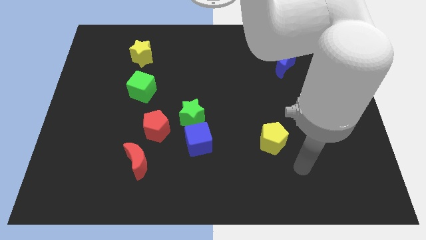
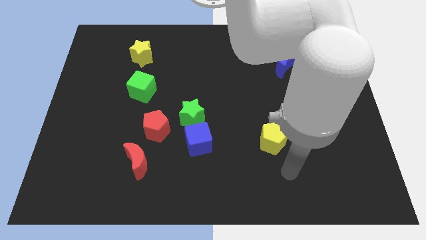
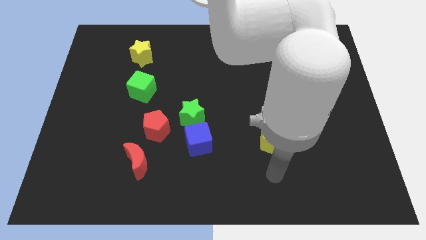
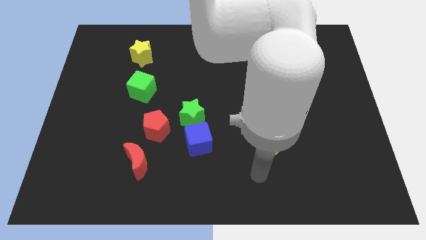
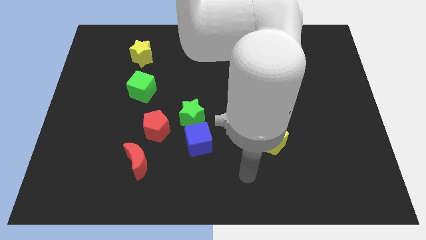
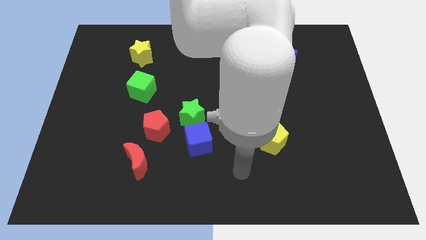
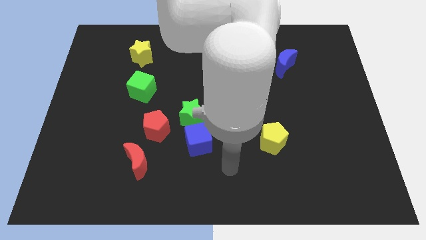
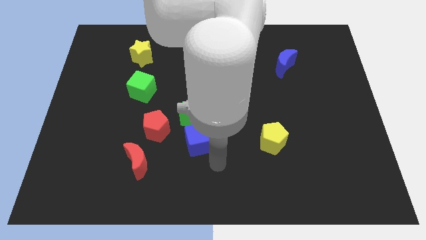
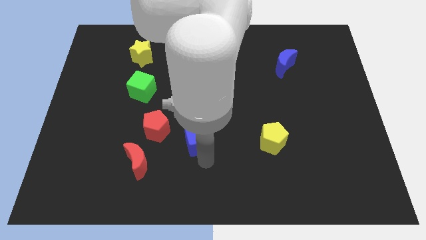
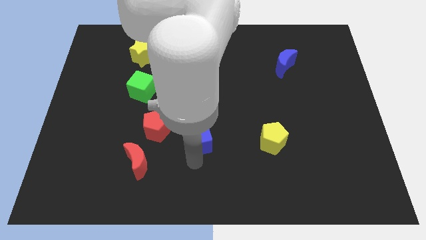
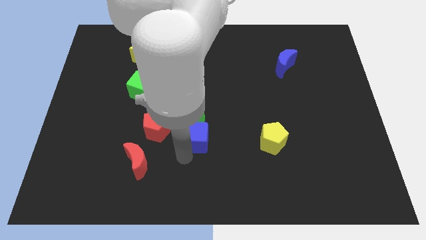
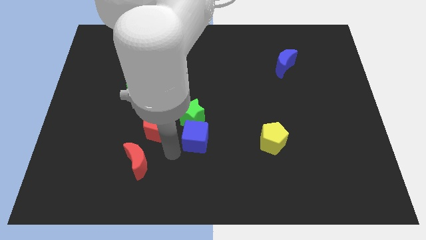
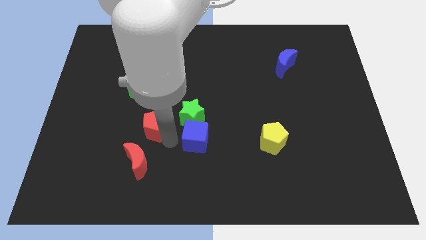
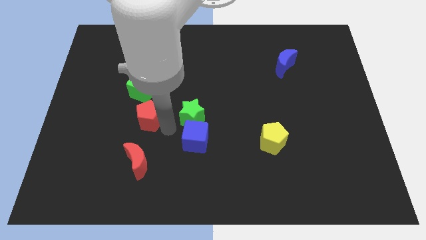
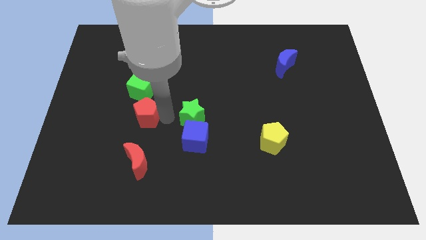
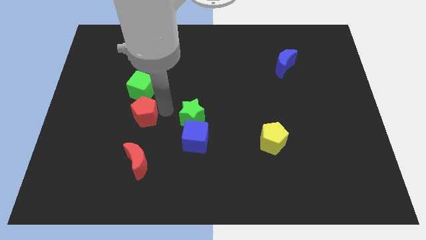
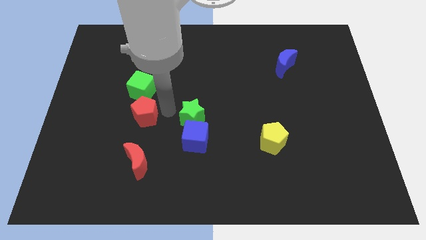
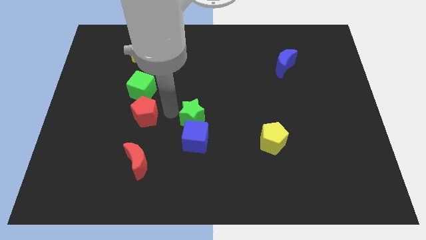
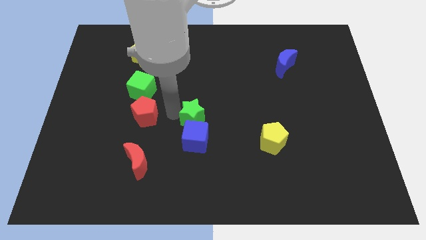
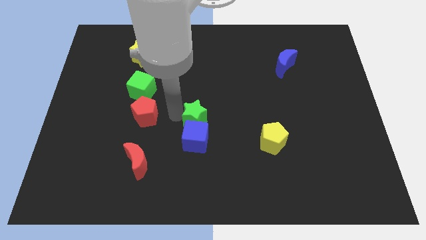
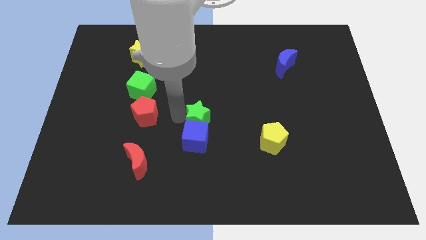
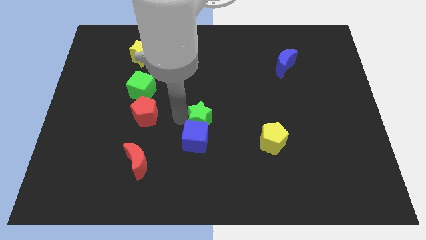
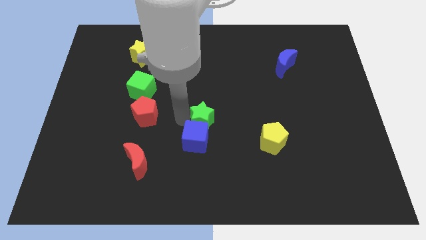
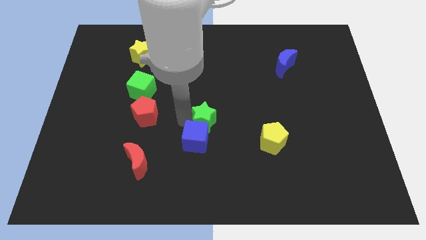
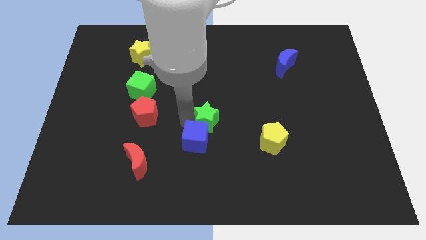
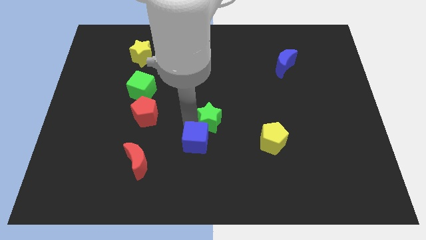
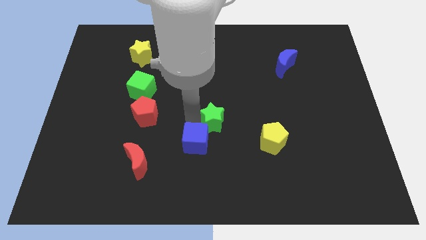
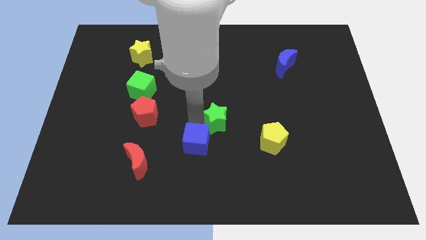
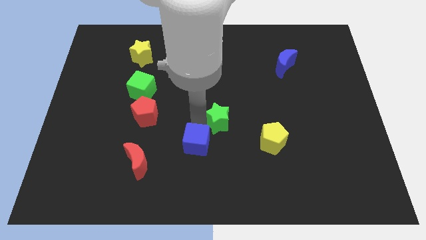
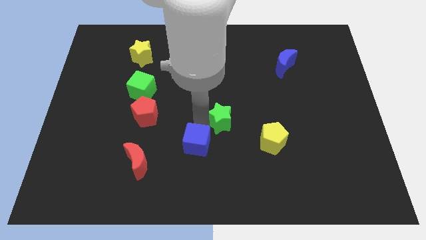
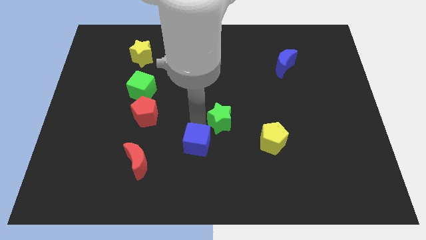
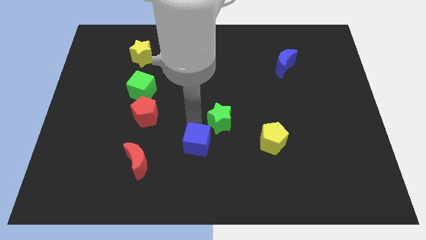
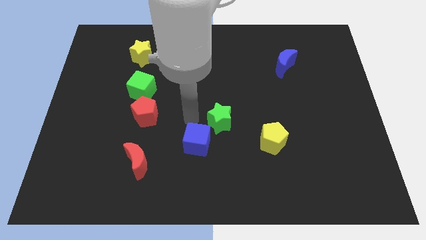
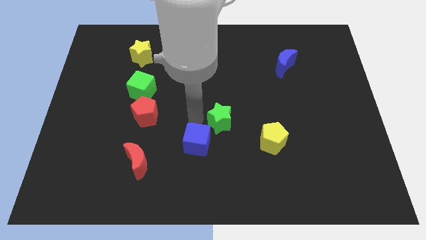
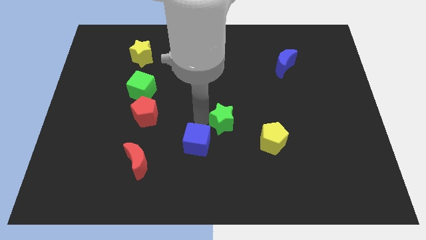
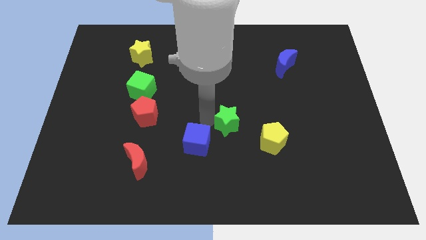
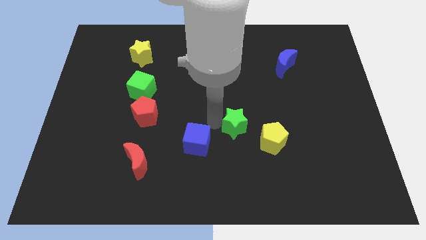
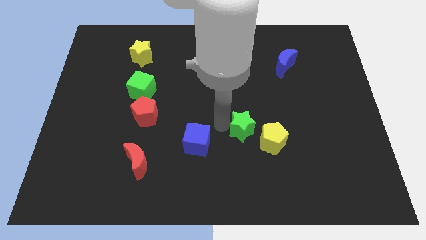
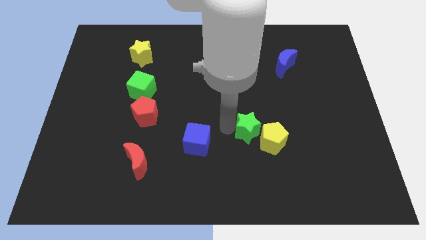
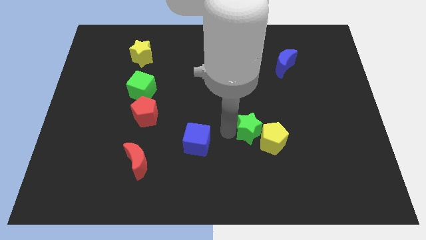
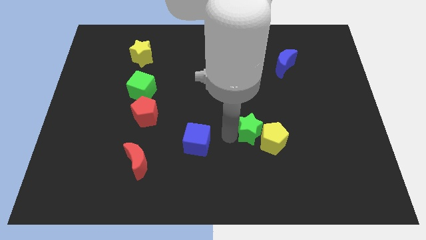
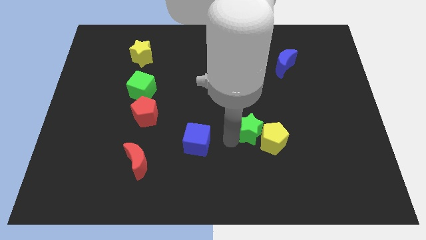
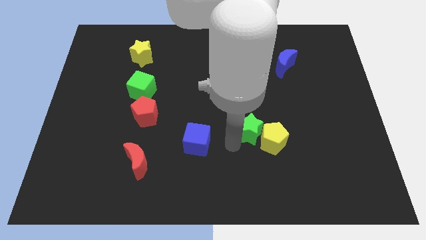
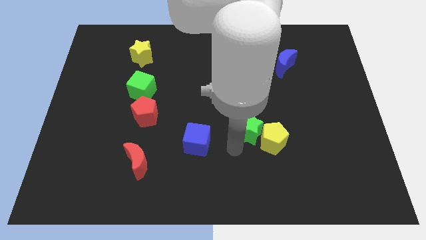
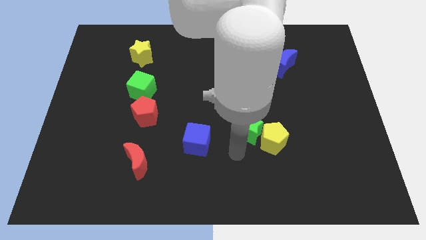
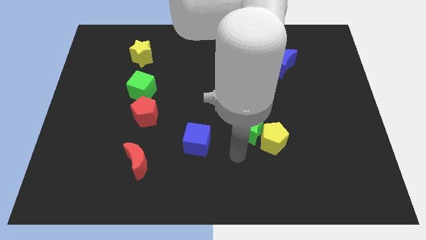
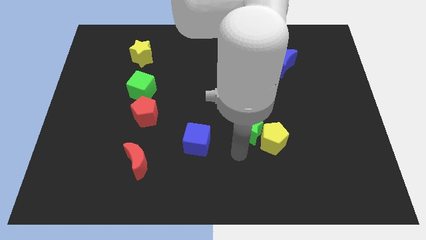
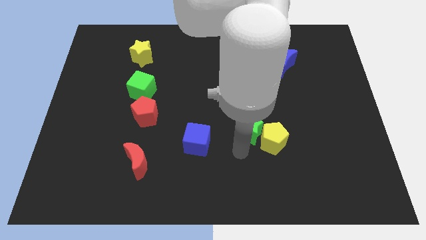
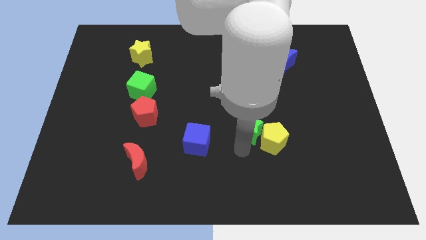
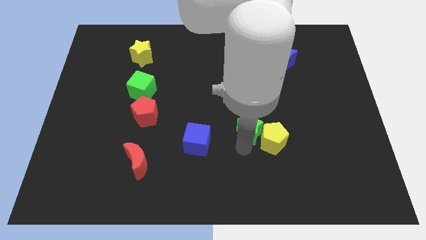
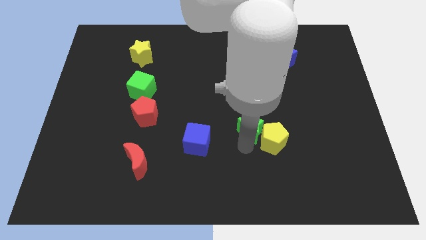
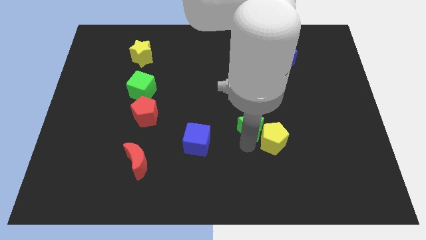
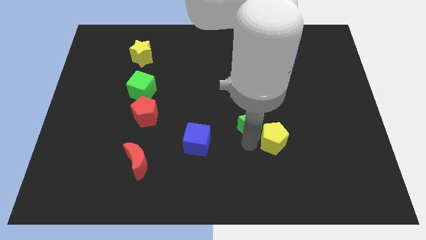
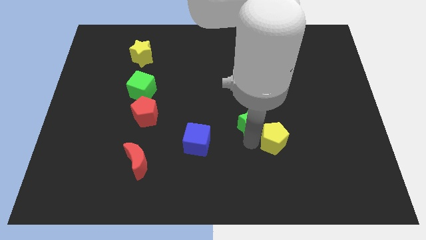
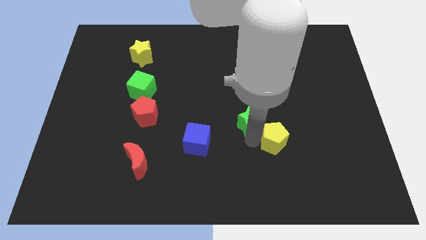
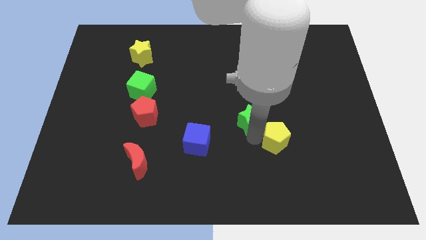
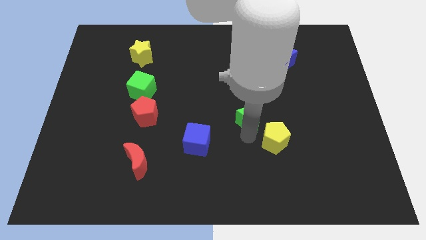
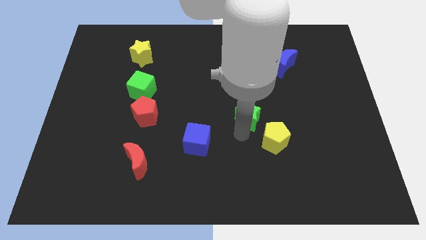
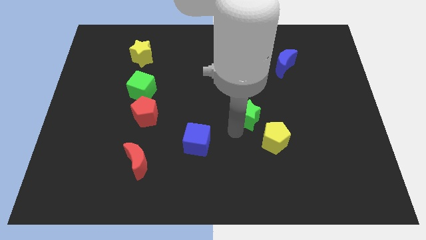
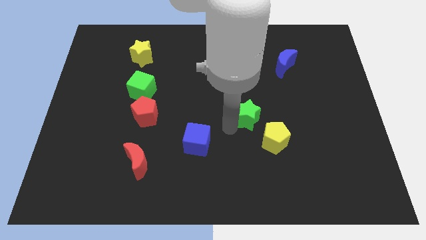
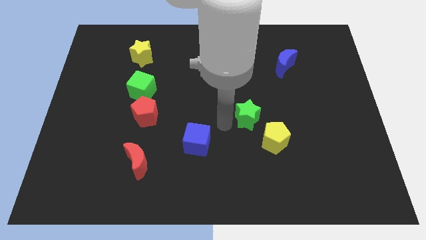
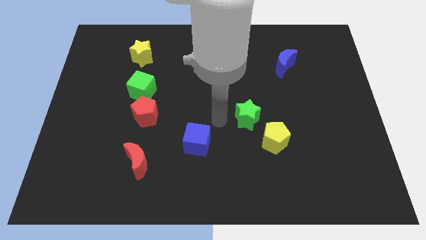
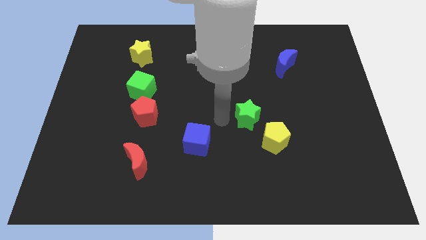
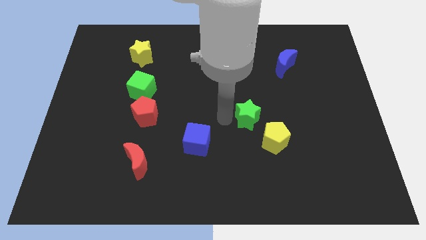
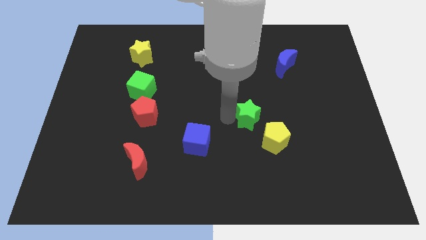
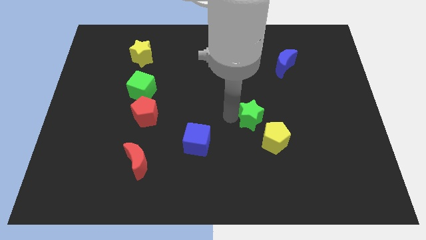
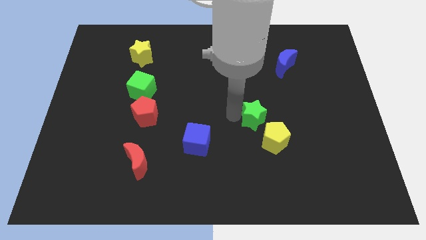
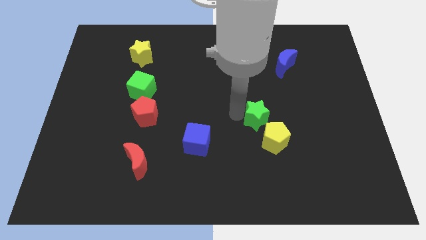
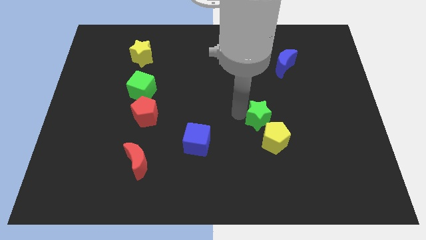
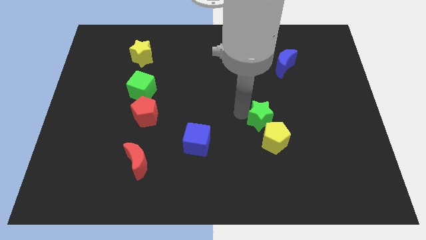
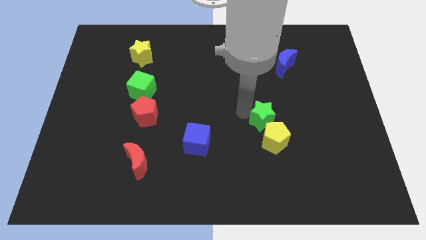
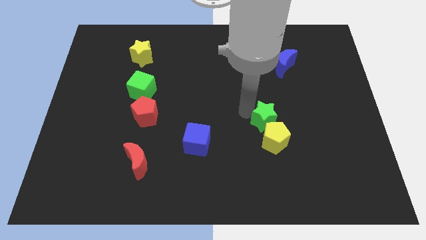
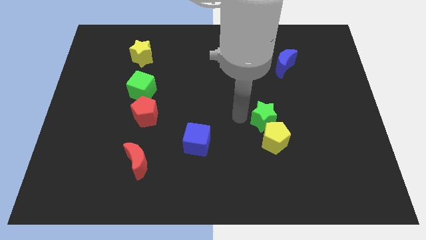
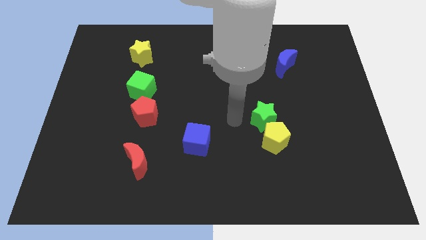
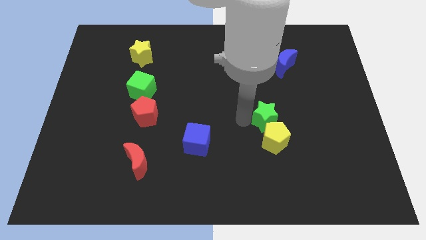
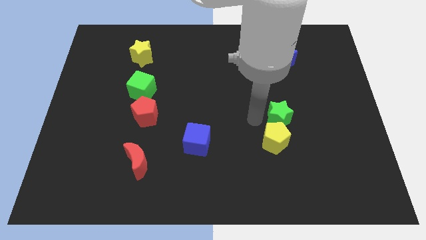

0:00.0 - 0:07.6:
move the green star right

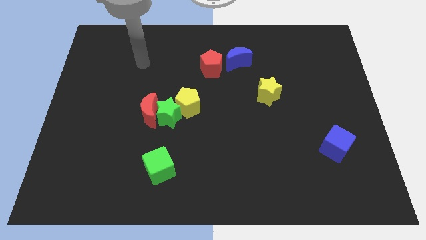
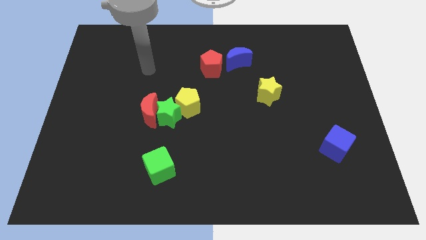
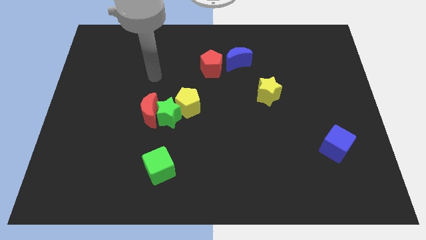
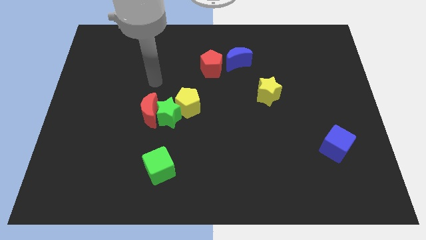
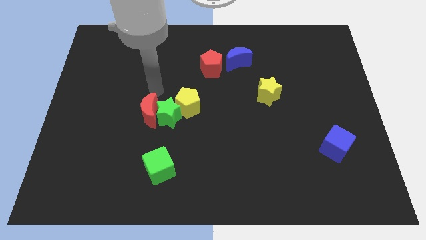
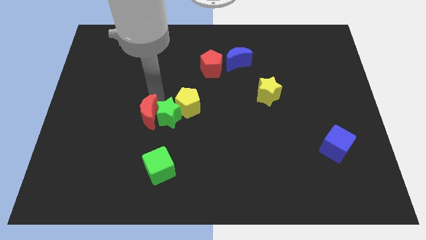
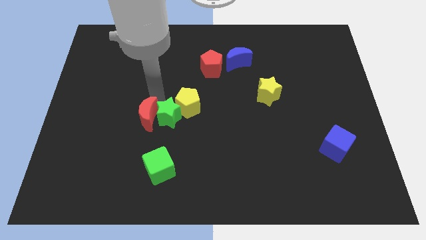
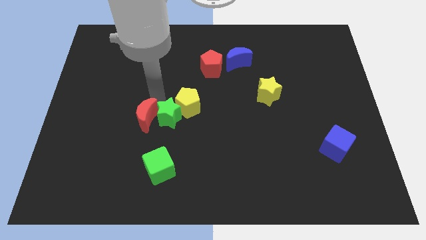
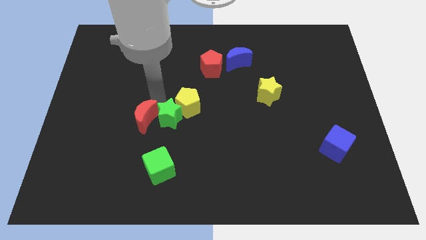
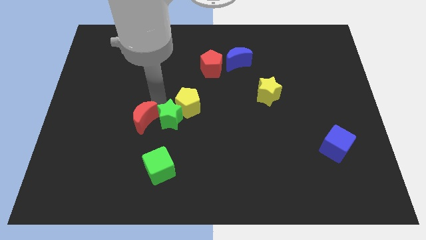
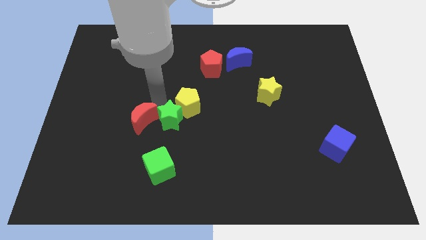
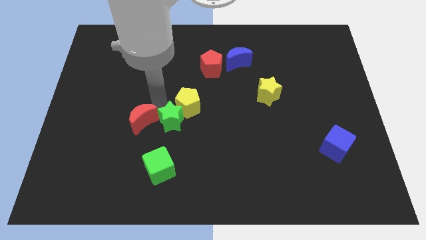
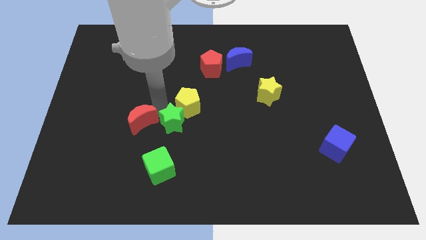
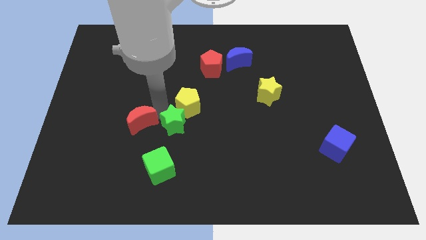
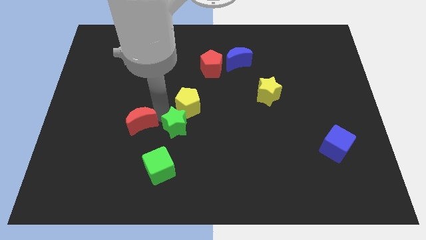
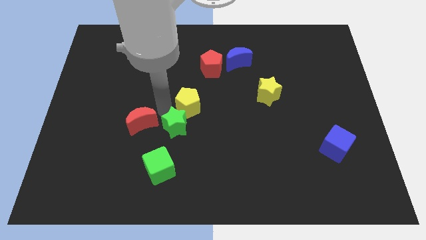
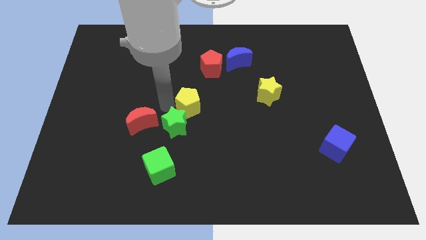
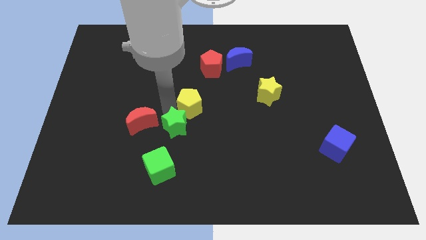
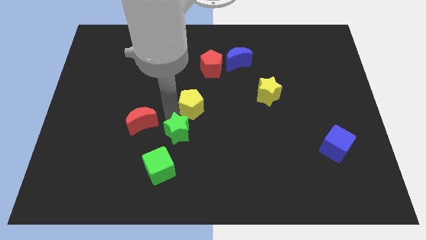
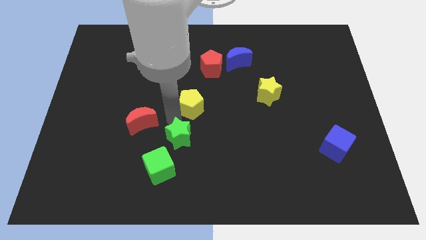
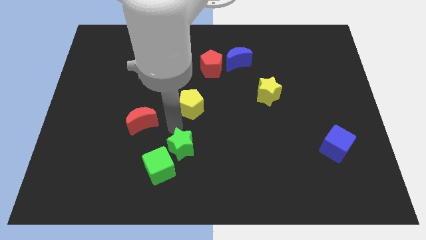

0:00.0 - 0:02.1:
slightly move the green star downwards and then right
